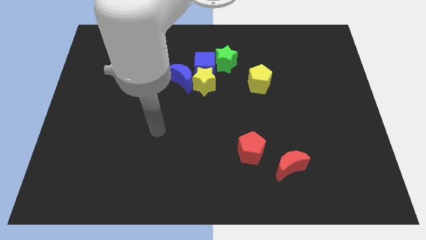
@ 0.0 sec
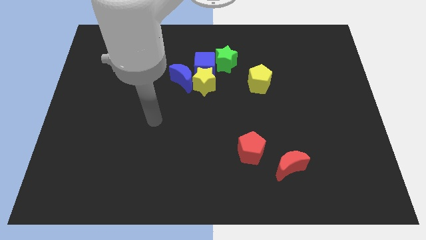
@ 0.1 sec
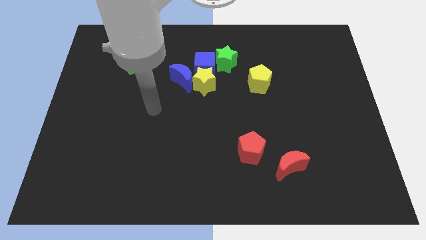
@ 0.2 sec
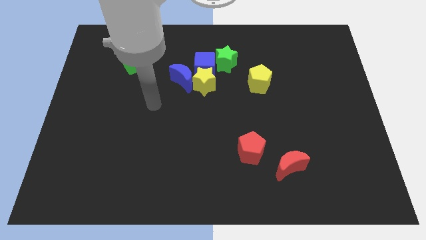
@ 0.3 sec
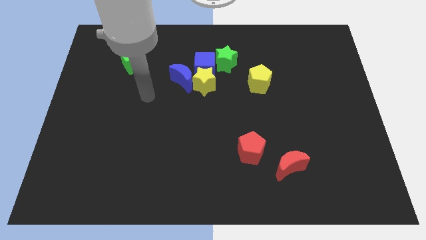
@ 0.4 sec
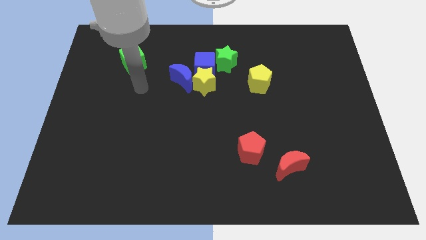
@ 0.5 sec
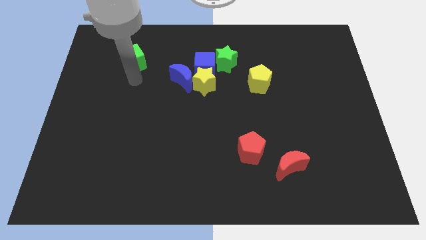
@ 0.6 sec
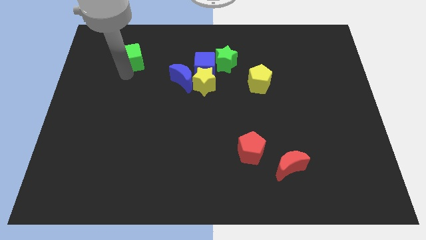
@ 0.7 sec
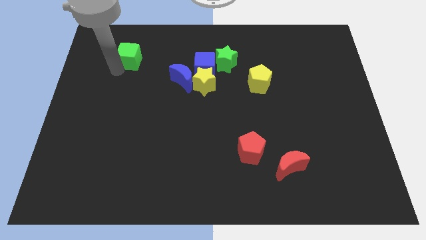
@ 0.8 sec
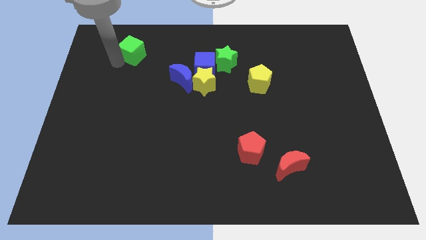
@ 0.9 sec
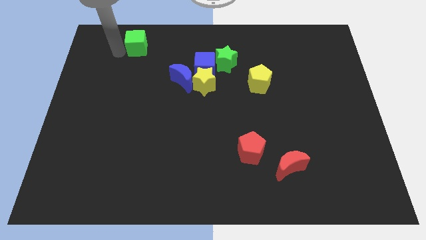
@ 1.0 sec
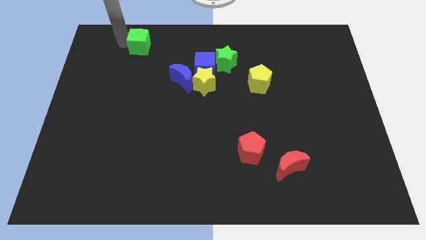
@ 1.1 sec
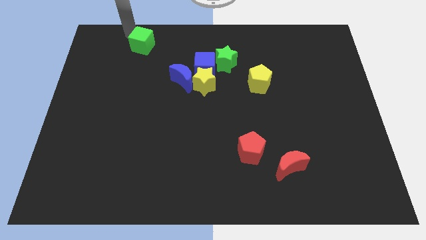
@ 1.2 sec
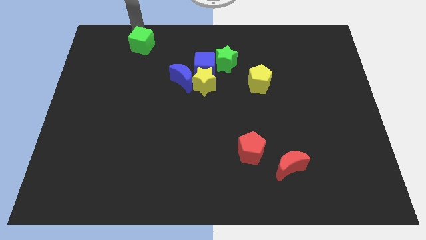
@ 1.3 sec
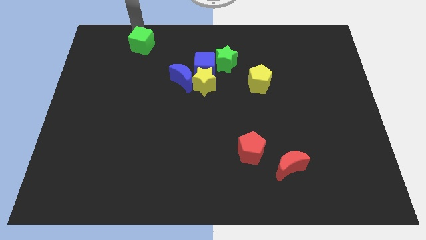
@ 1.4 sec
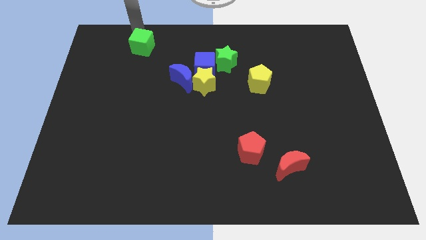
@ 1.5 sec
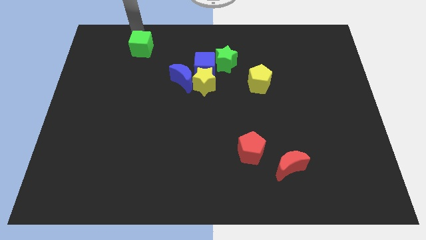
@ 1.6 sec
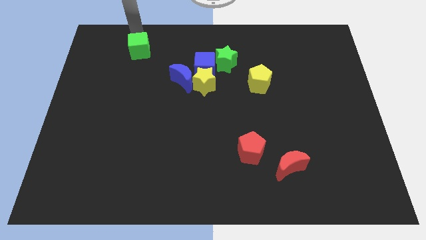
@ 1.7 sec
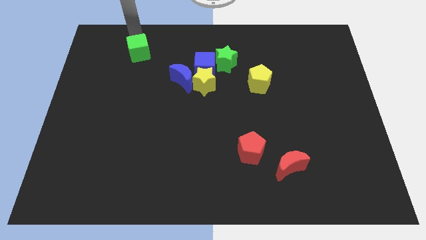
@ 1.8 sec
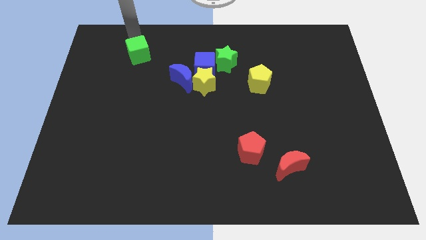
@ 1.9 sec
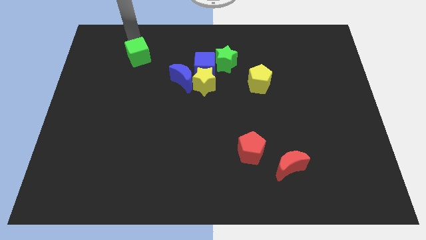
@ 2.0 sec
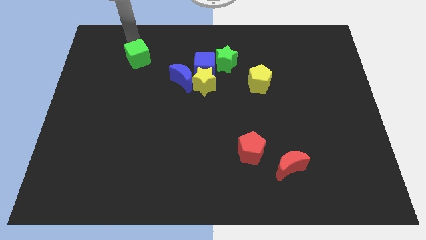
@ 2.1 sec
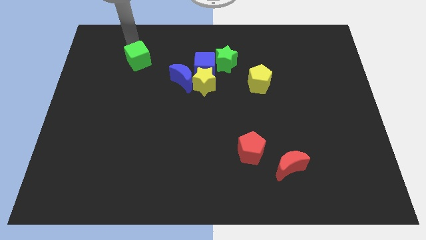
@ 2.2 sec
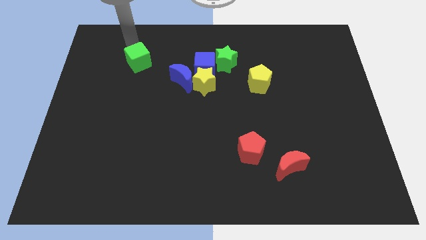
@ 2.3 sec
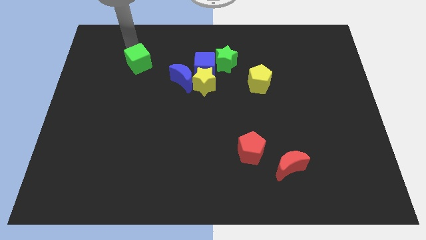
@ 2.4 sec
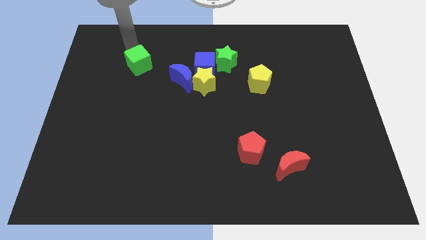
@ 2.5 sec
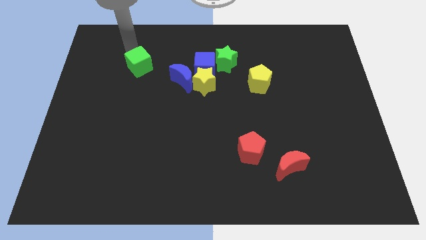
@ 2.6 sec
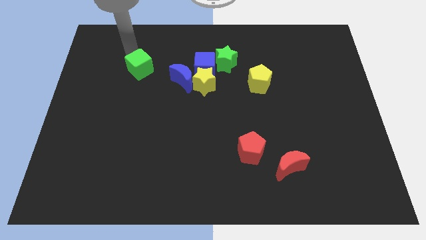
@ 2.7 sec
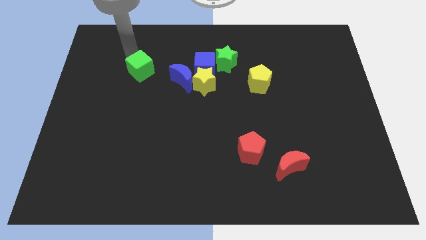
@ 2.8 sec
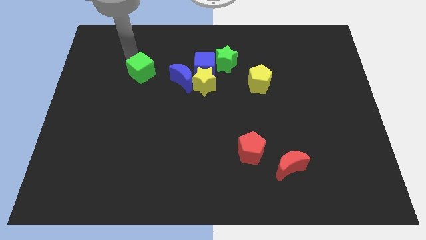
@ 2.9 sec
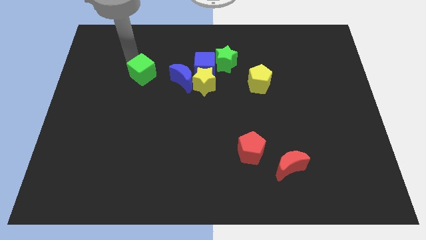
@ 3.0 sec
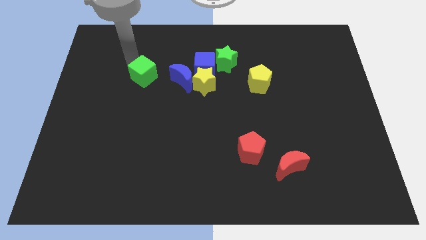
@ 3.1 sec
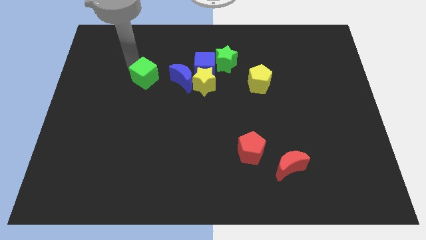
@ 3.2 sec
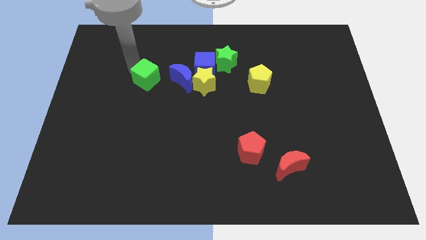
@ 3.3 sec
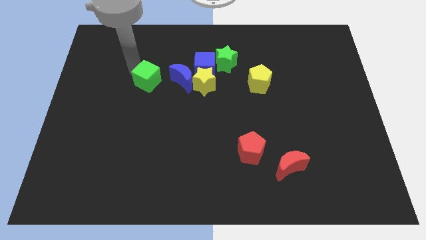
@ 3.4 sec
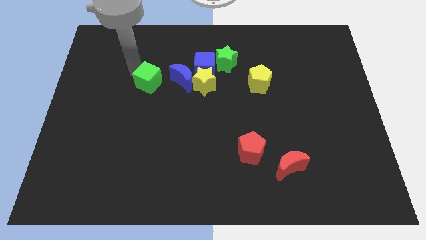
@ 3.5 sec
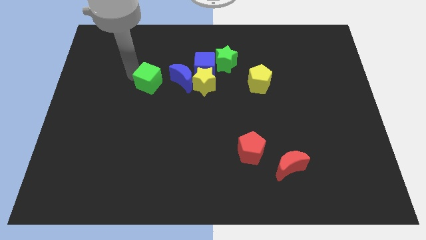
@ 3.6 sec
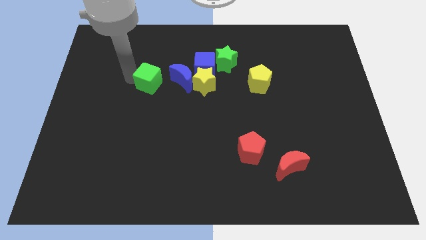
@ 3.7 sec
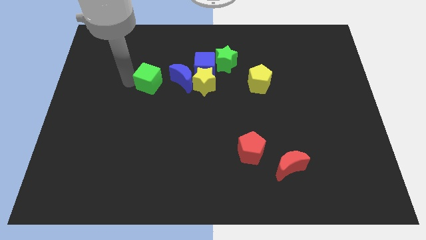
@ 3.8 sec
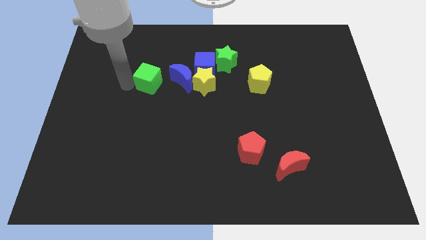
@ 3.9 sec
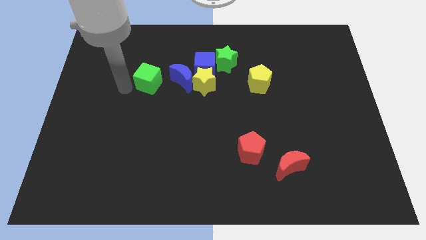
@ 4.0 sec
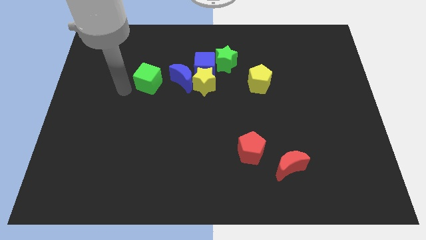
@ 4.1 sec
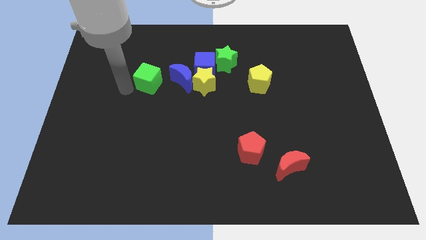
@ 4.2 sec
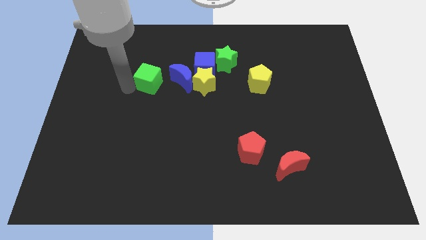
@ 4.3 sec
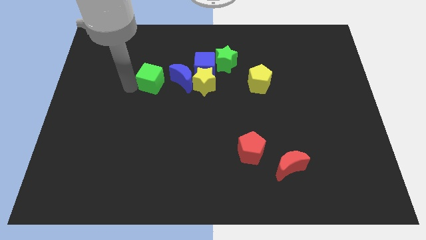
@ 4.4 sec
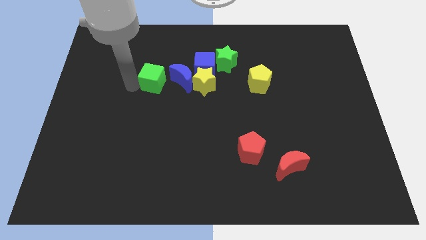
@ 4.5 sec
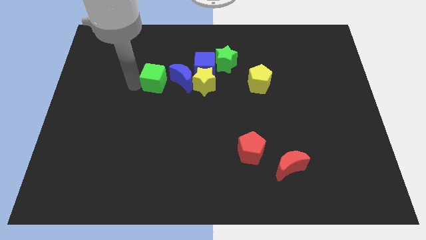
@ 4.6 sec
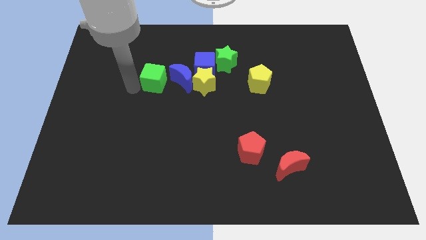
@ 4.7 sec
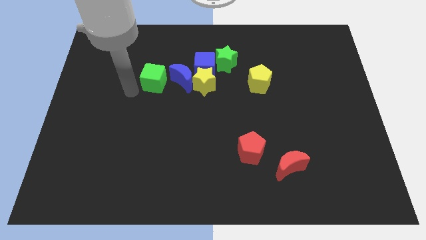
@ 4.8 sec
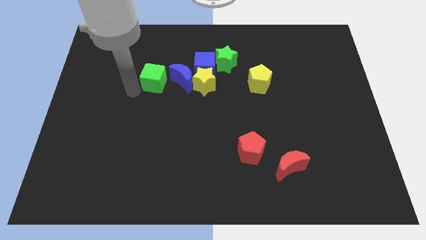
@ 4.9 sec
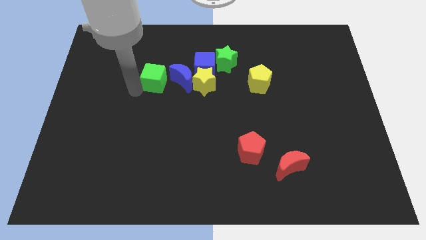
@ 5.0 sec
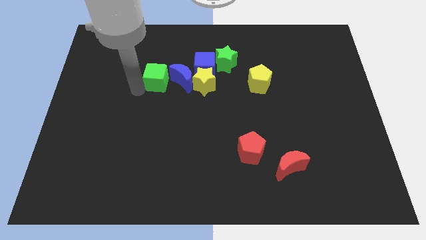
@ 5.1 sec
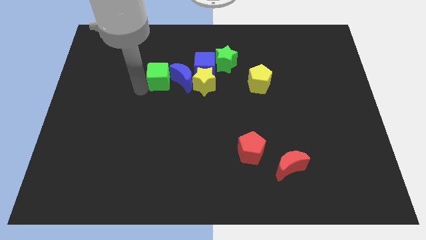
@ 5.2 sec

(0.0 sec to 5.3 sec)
push the green cube next to the blue moon
